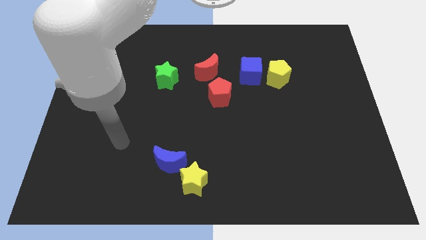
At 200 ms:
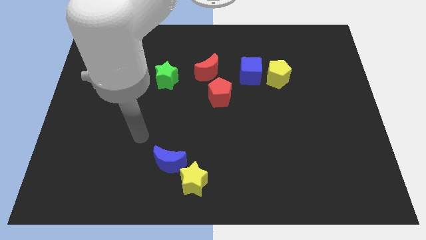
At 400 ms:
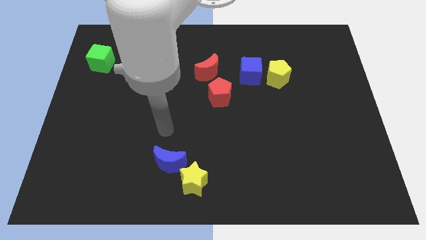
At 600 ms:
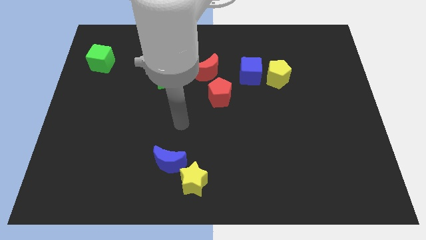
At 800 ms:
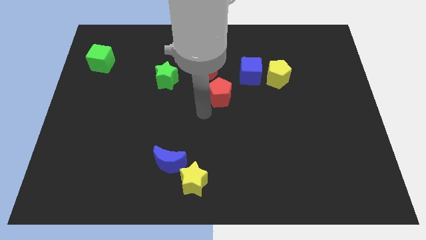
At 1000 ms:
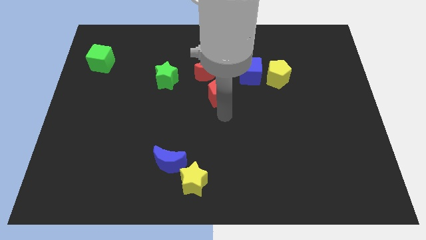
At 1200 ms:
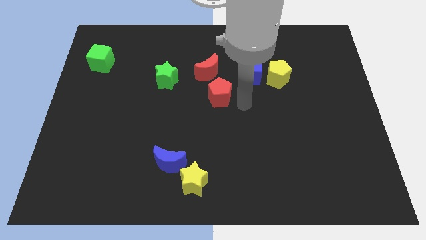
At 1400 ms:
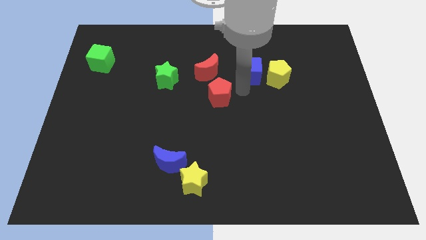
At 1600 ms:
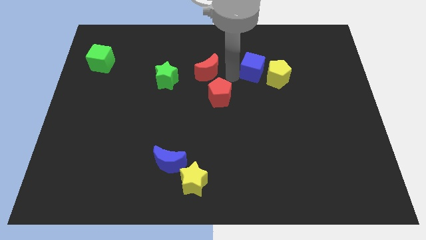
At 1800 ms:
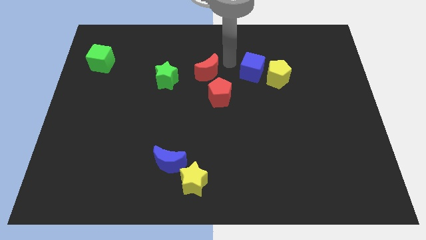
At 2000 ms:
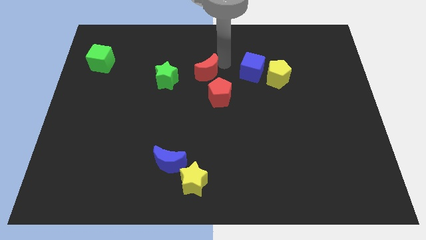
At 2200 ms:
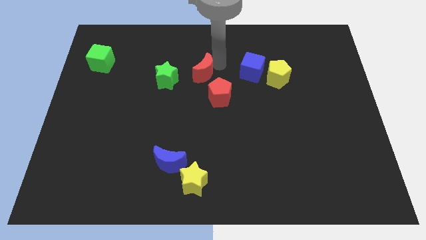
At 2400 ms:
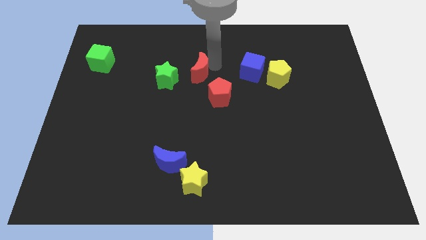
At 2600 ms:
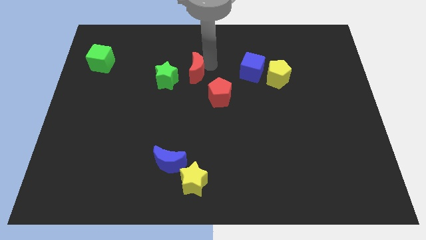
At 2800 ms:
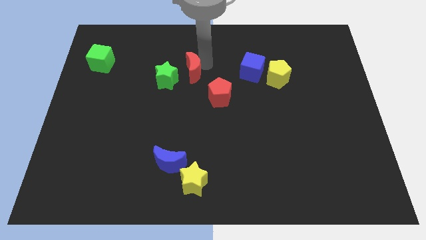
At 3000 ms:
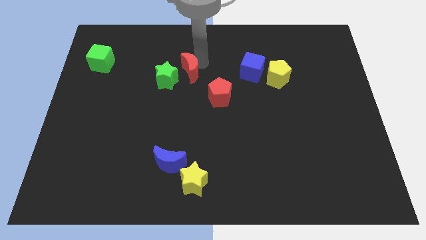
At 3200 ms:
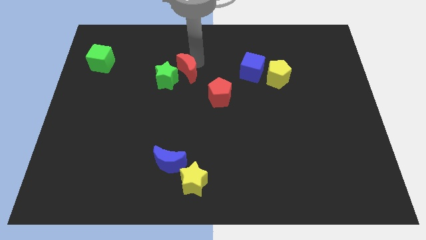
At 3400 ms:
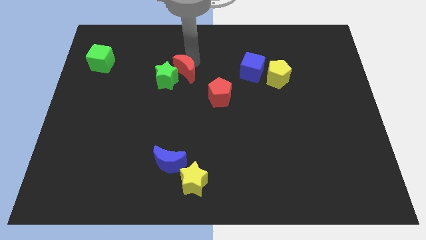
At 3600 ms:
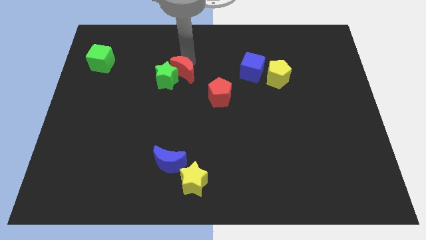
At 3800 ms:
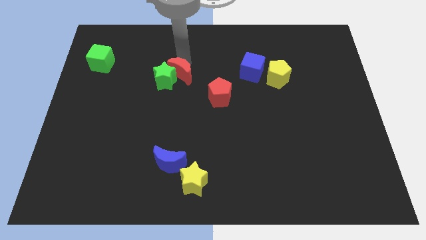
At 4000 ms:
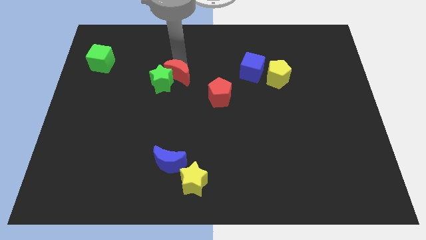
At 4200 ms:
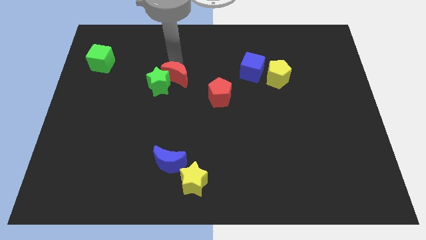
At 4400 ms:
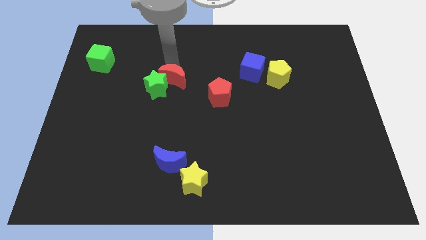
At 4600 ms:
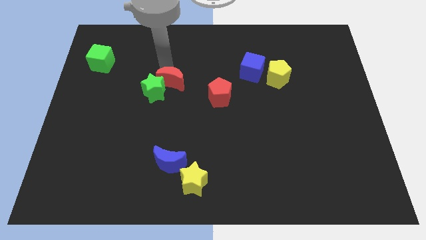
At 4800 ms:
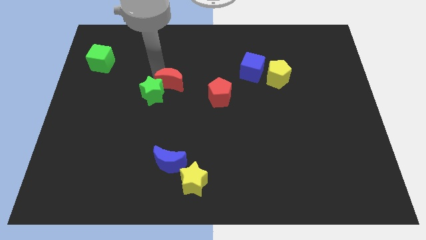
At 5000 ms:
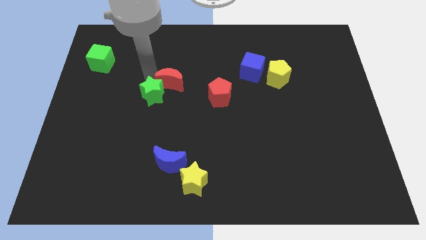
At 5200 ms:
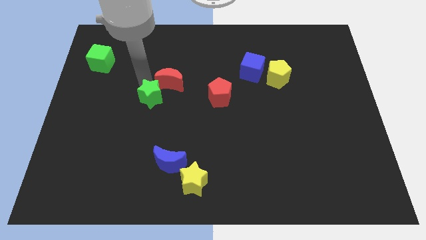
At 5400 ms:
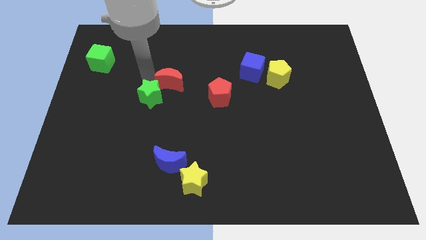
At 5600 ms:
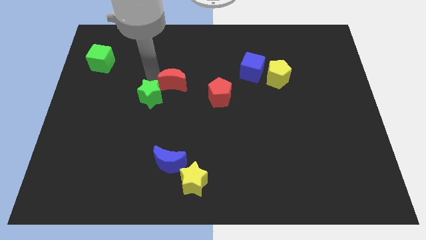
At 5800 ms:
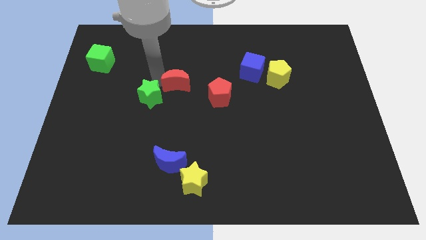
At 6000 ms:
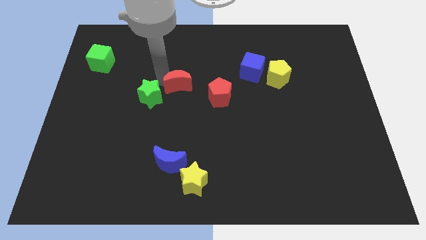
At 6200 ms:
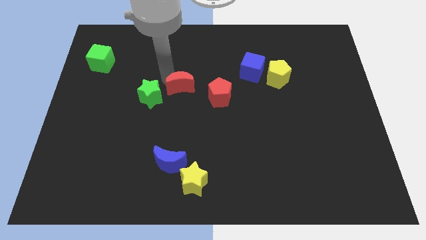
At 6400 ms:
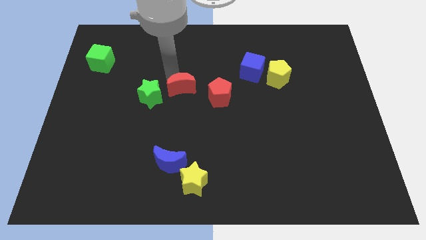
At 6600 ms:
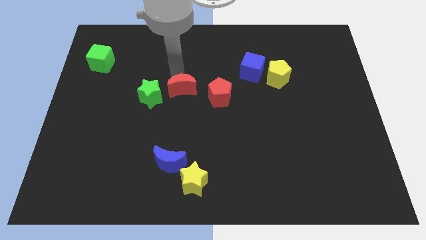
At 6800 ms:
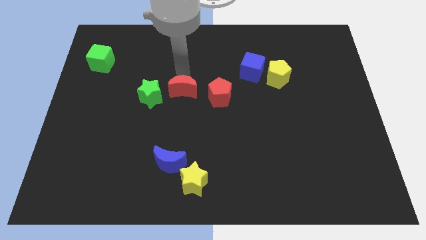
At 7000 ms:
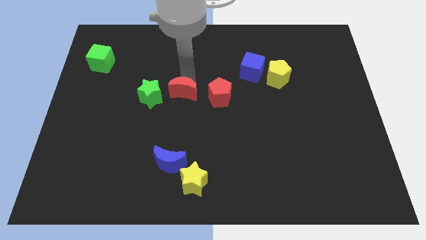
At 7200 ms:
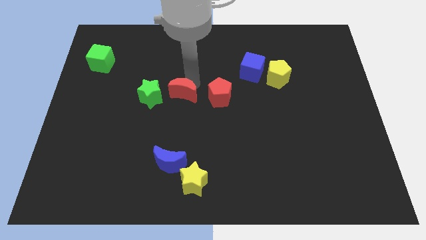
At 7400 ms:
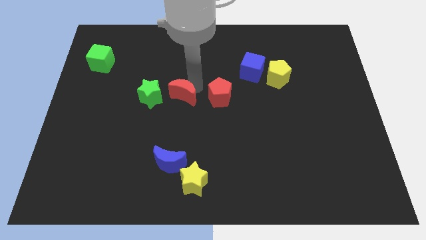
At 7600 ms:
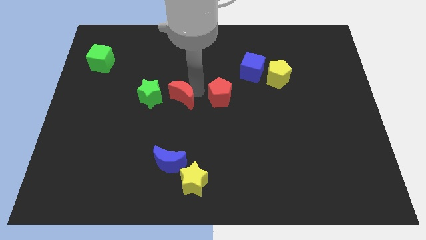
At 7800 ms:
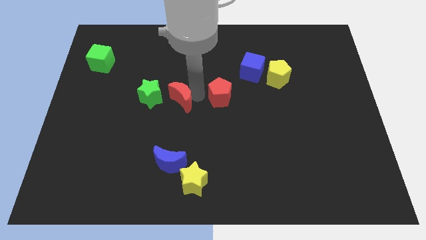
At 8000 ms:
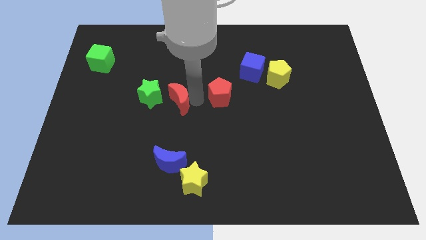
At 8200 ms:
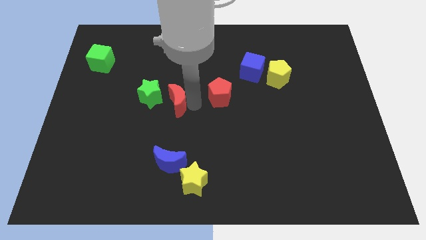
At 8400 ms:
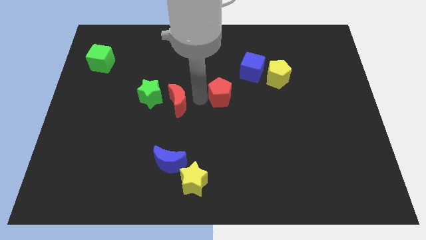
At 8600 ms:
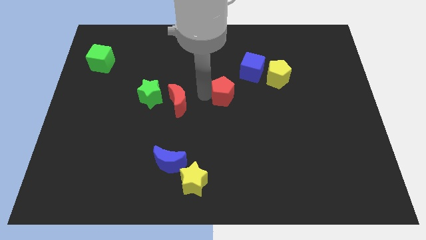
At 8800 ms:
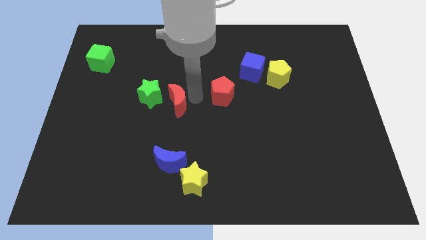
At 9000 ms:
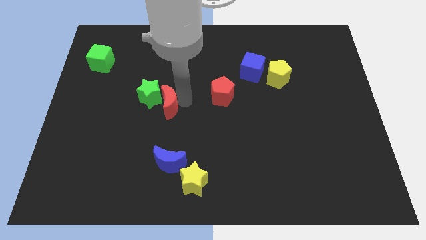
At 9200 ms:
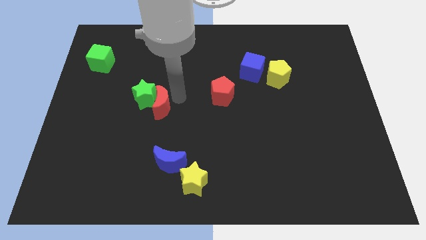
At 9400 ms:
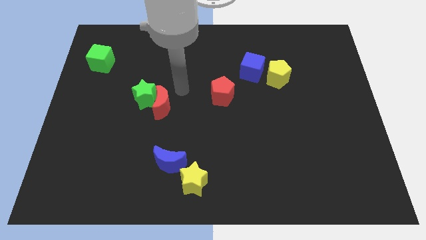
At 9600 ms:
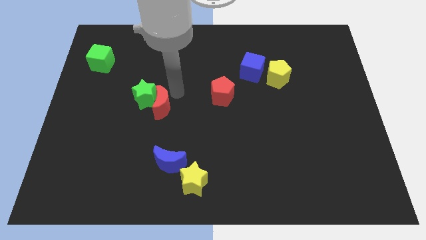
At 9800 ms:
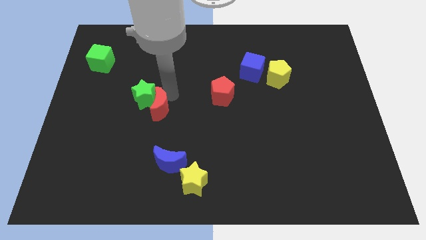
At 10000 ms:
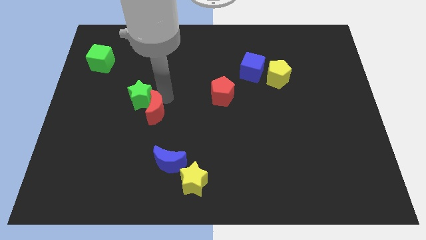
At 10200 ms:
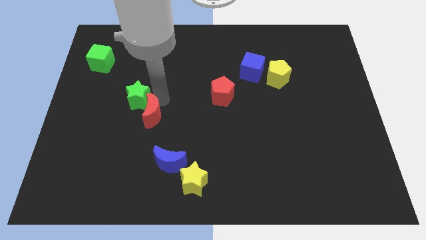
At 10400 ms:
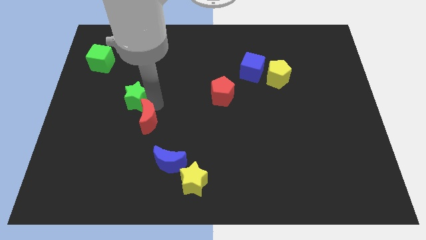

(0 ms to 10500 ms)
slide the red moon downwards and to the left diagonally

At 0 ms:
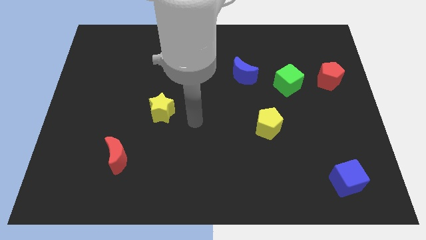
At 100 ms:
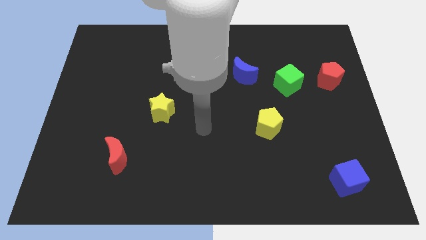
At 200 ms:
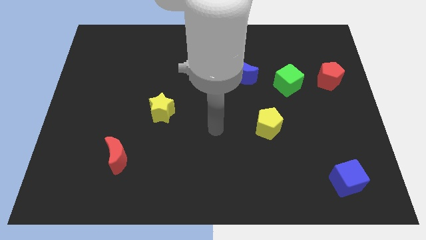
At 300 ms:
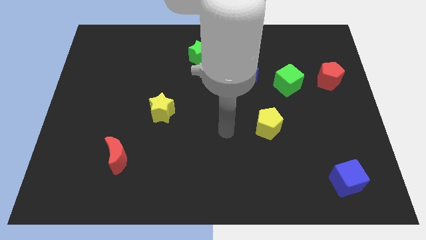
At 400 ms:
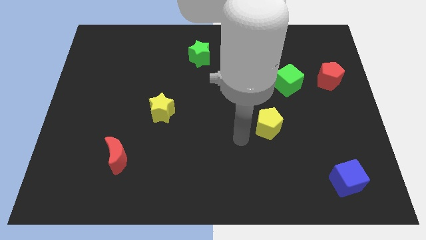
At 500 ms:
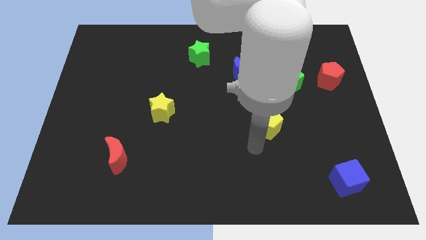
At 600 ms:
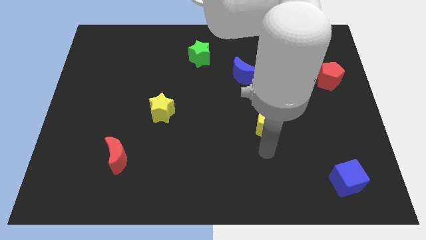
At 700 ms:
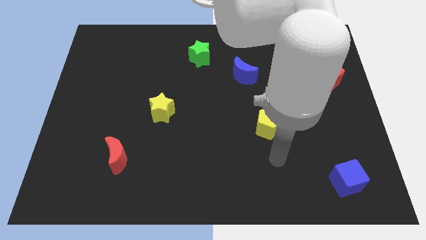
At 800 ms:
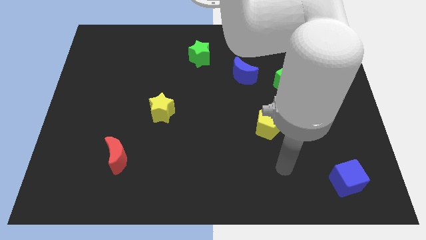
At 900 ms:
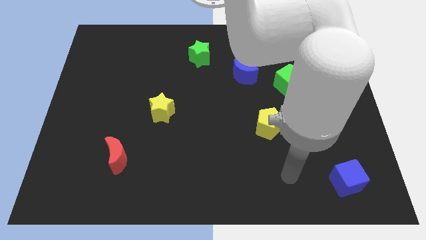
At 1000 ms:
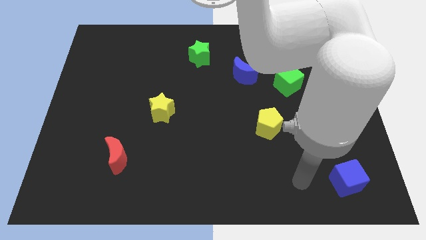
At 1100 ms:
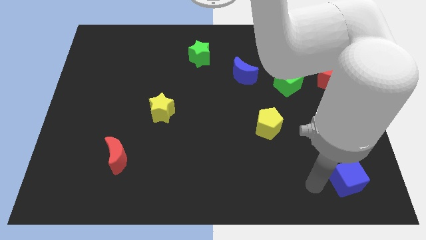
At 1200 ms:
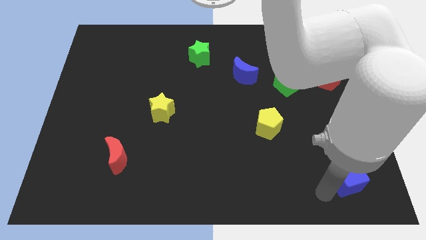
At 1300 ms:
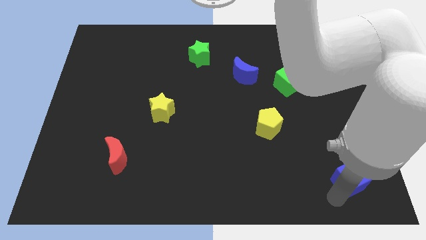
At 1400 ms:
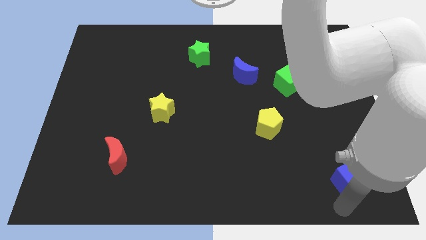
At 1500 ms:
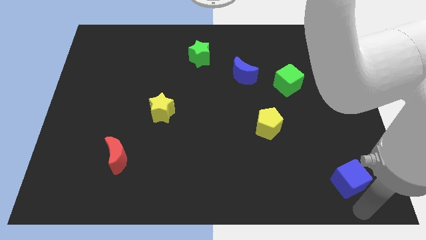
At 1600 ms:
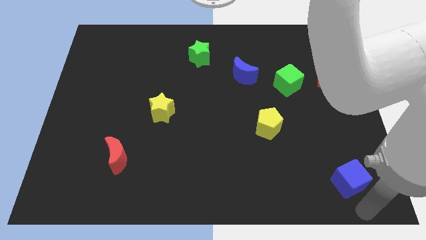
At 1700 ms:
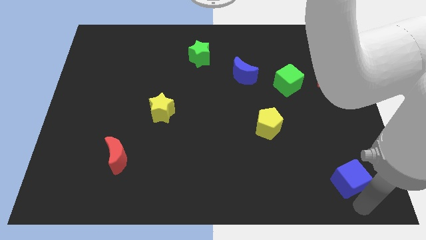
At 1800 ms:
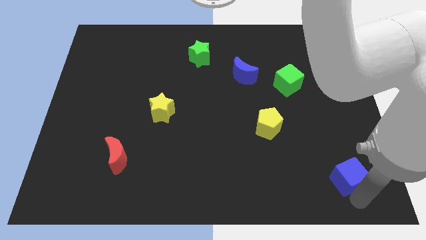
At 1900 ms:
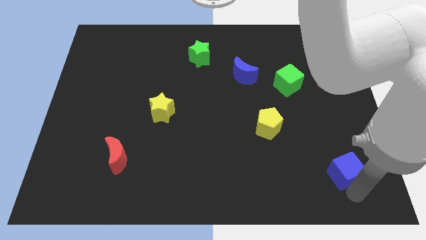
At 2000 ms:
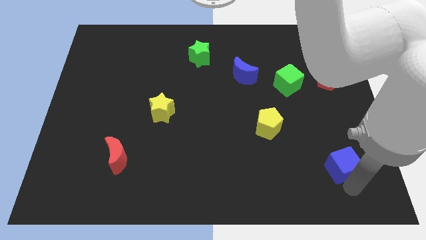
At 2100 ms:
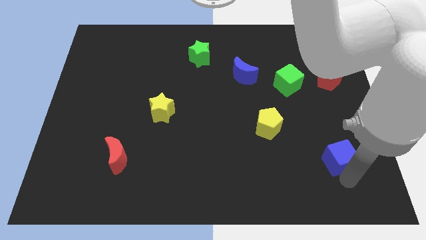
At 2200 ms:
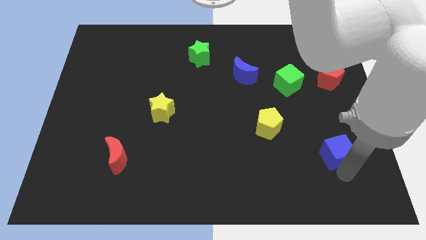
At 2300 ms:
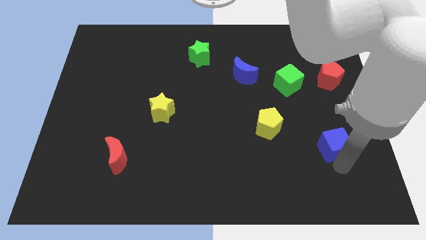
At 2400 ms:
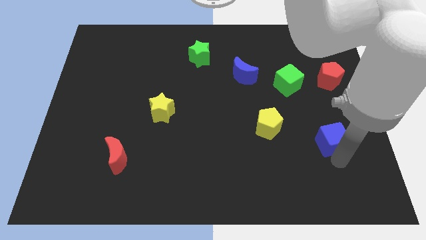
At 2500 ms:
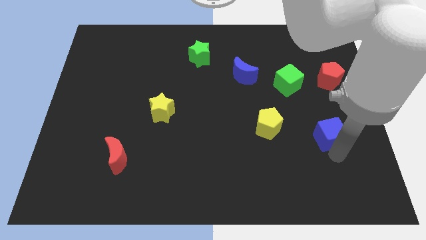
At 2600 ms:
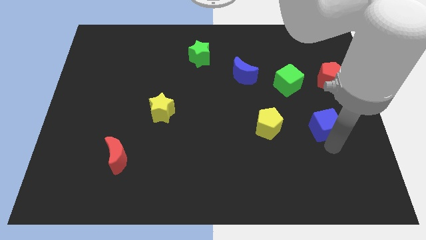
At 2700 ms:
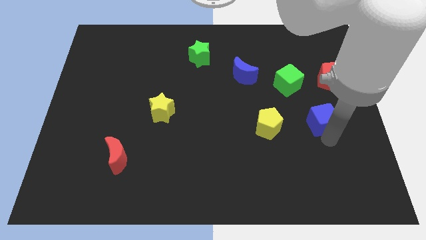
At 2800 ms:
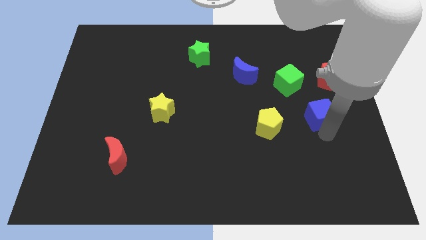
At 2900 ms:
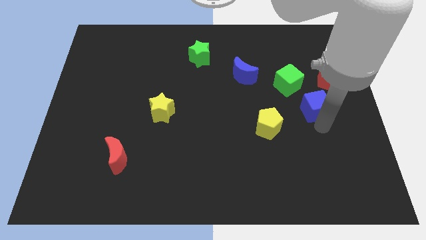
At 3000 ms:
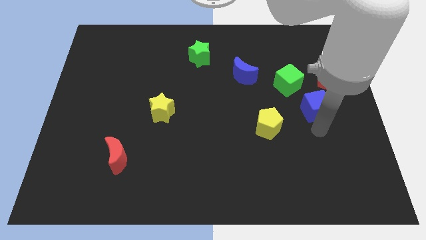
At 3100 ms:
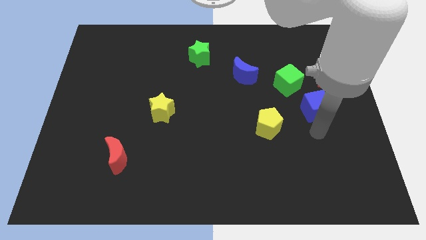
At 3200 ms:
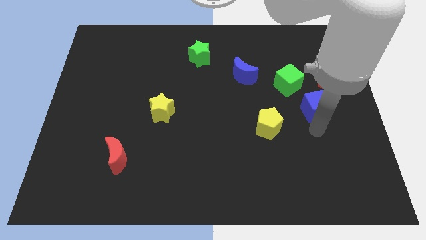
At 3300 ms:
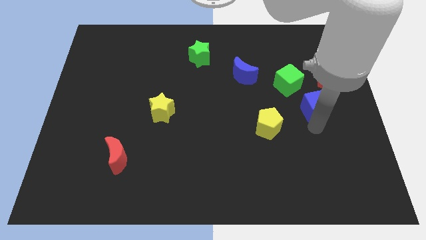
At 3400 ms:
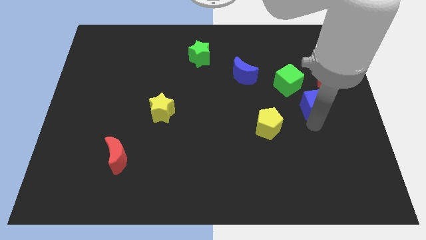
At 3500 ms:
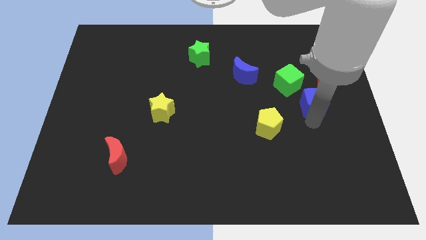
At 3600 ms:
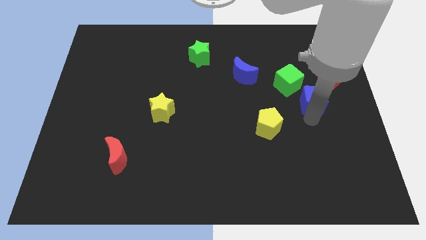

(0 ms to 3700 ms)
slide the blue cube upwards
